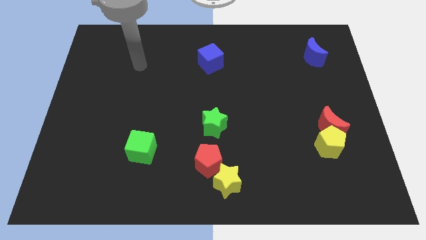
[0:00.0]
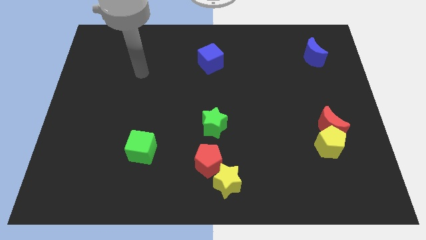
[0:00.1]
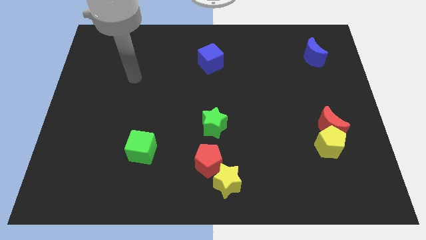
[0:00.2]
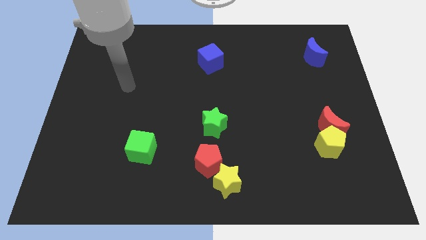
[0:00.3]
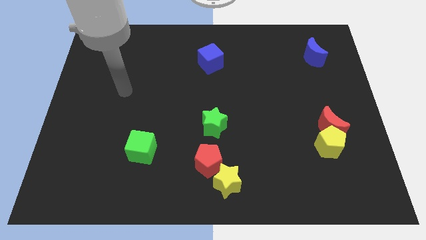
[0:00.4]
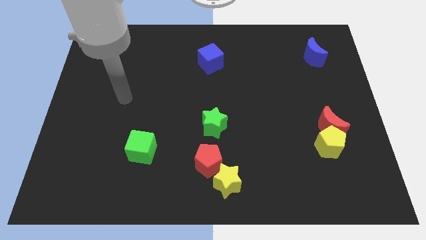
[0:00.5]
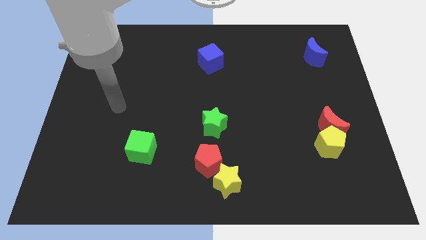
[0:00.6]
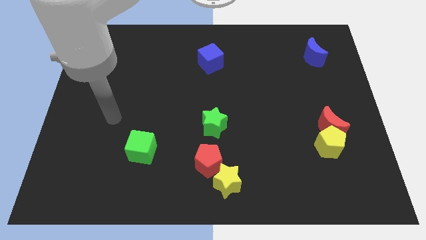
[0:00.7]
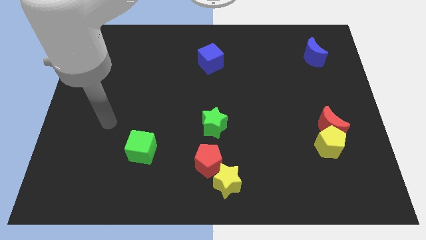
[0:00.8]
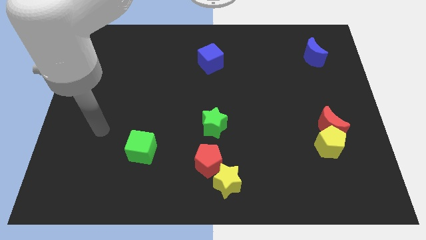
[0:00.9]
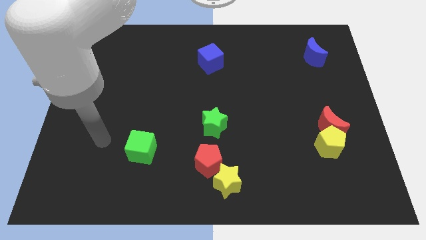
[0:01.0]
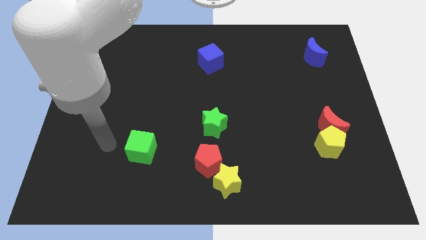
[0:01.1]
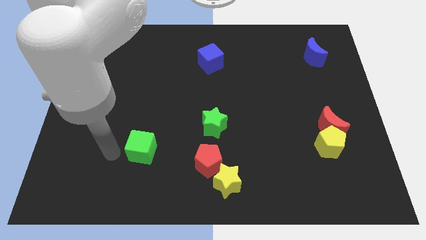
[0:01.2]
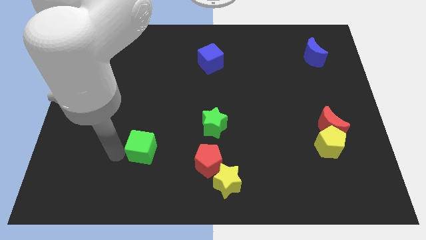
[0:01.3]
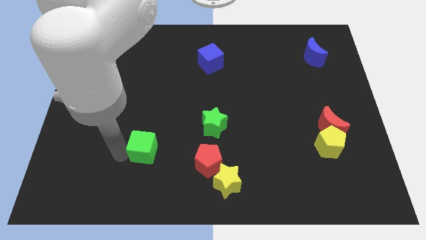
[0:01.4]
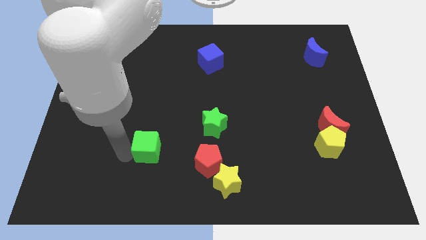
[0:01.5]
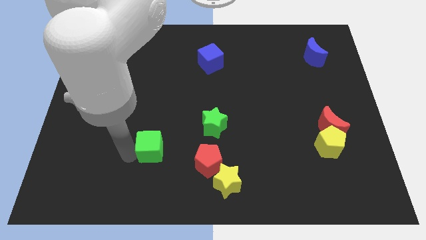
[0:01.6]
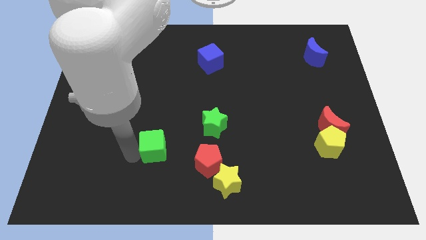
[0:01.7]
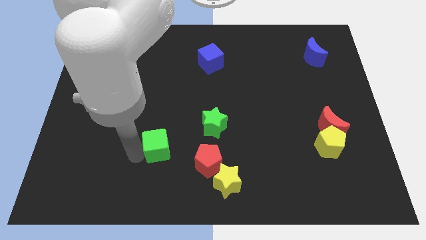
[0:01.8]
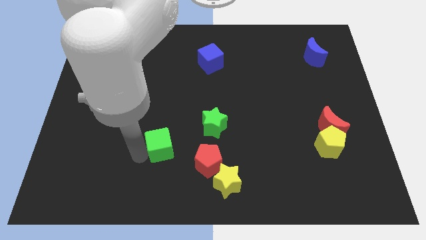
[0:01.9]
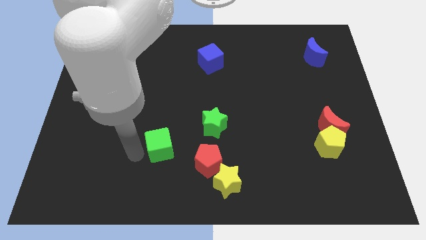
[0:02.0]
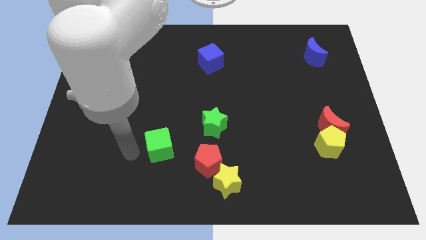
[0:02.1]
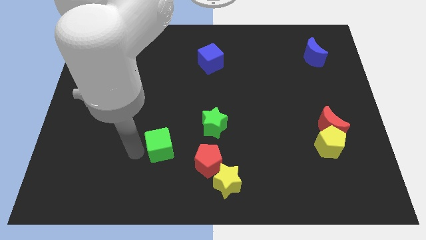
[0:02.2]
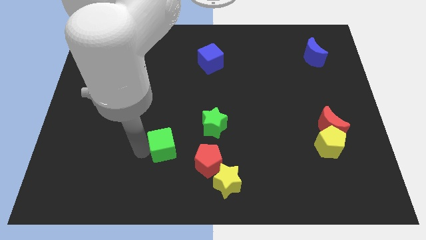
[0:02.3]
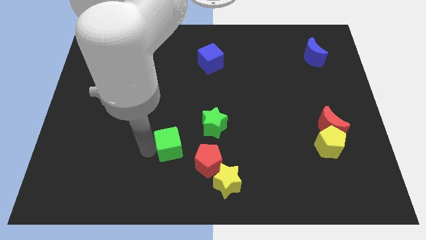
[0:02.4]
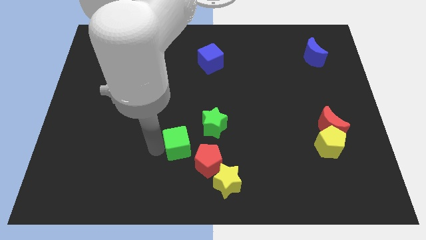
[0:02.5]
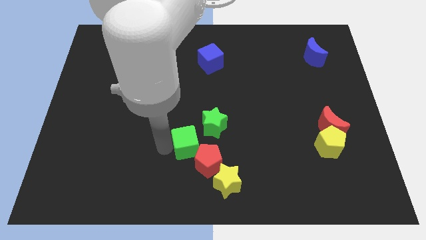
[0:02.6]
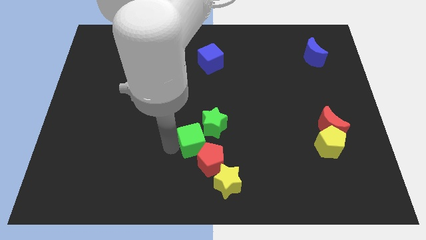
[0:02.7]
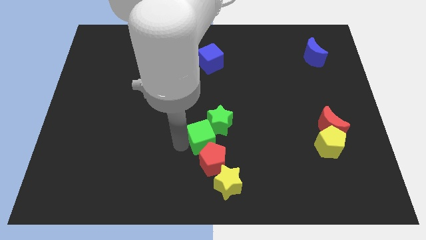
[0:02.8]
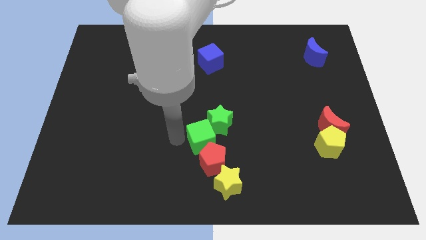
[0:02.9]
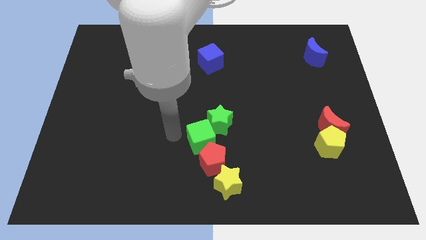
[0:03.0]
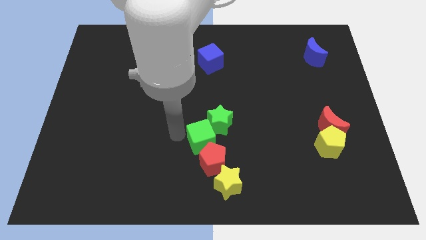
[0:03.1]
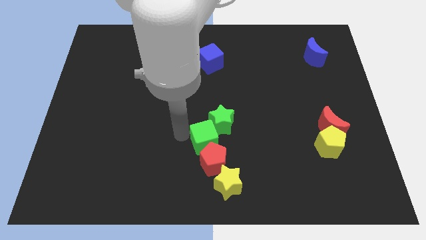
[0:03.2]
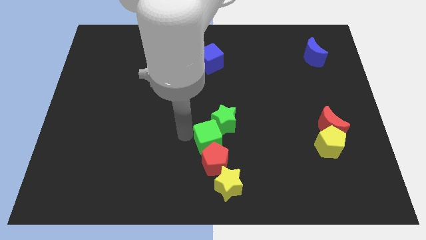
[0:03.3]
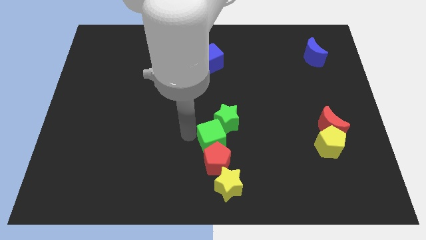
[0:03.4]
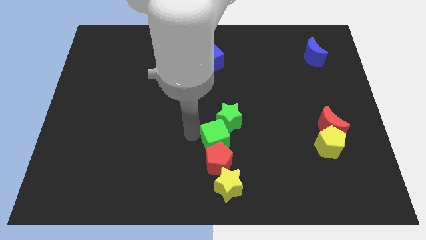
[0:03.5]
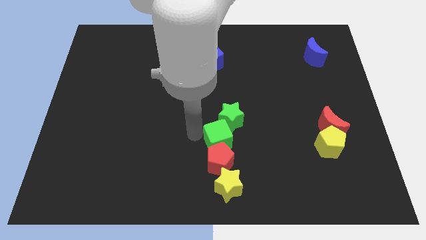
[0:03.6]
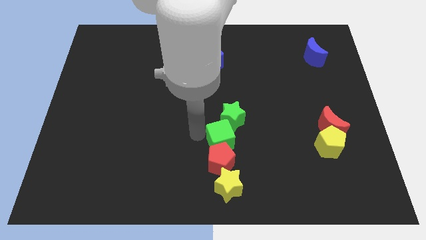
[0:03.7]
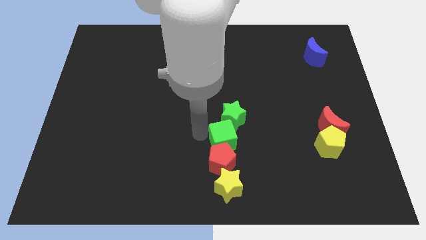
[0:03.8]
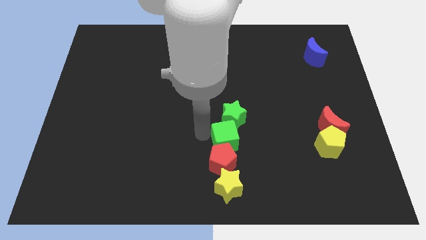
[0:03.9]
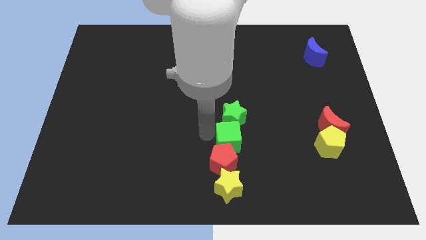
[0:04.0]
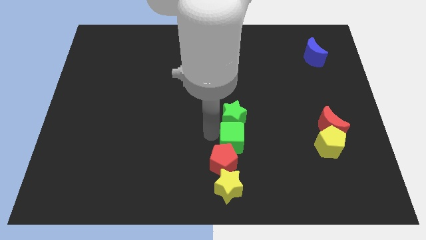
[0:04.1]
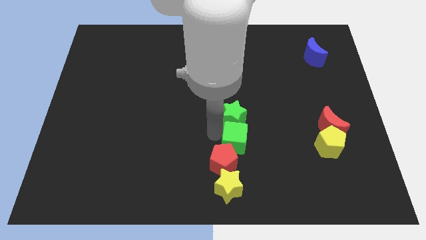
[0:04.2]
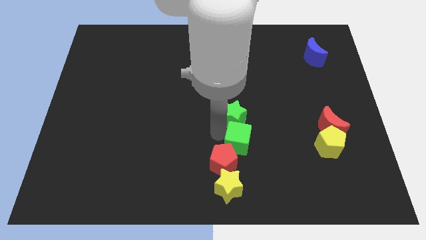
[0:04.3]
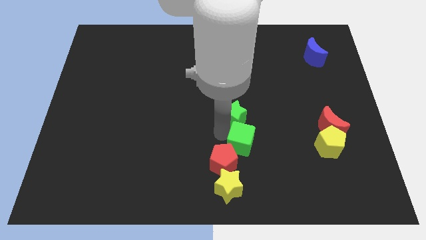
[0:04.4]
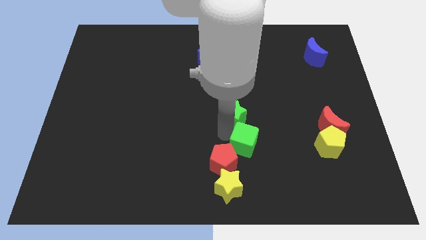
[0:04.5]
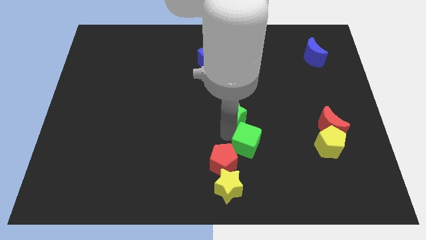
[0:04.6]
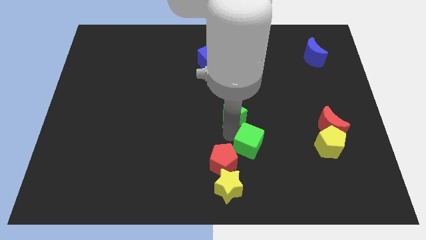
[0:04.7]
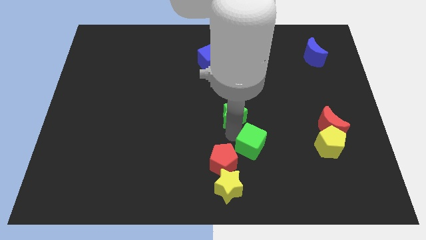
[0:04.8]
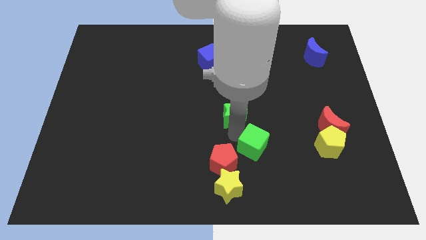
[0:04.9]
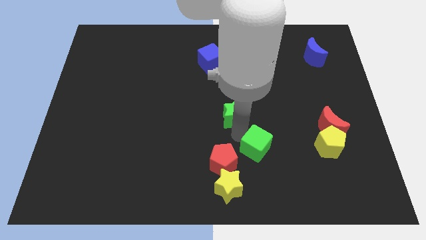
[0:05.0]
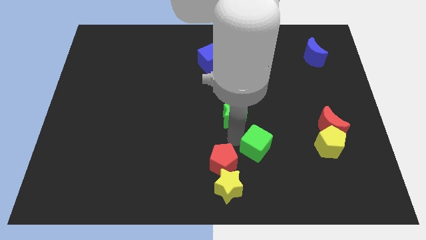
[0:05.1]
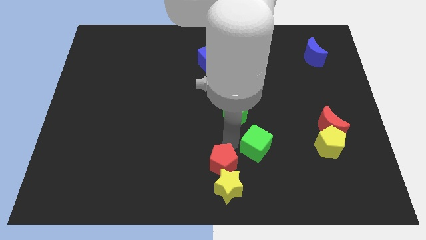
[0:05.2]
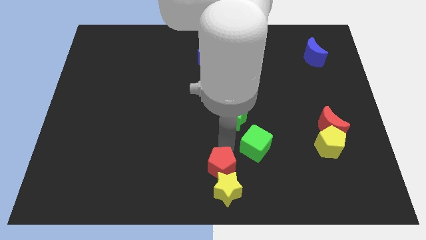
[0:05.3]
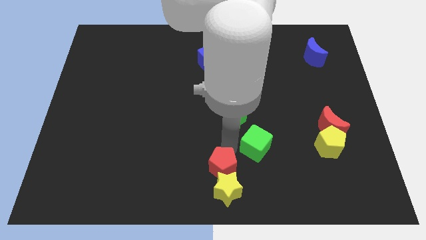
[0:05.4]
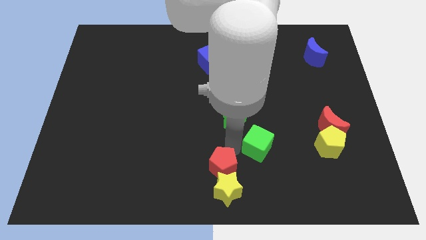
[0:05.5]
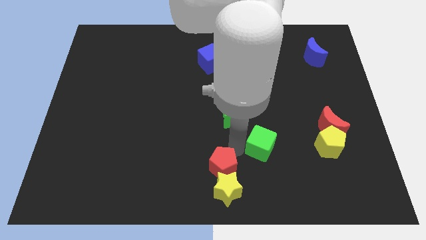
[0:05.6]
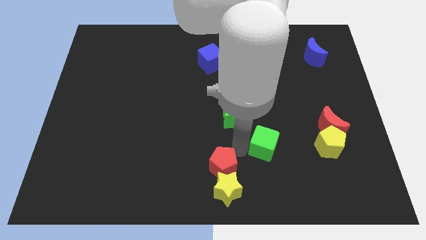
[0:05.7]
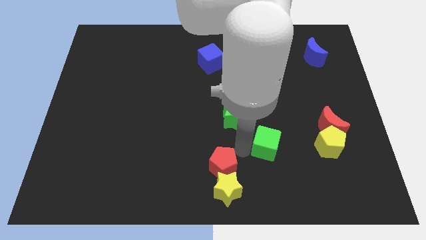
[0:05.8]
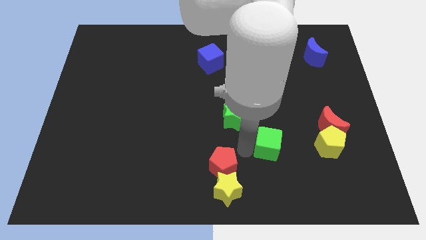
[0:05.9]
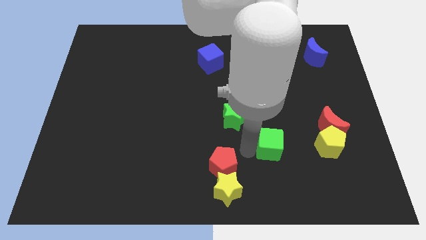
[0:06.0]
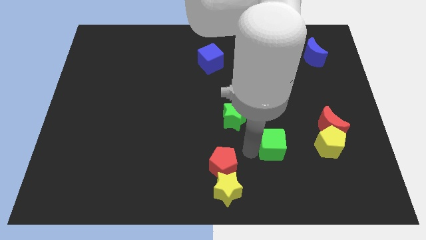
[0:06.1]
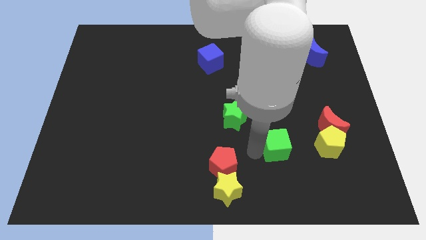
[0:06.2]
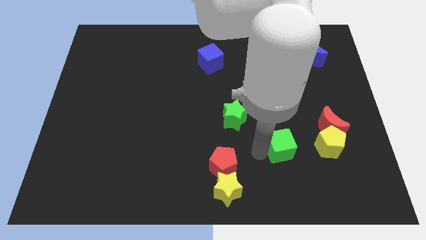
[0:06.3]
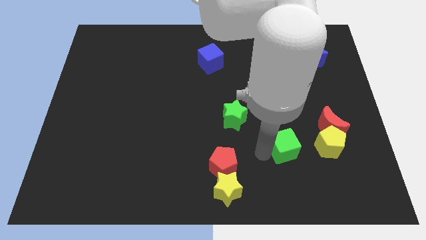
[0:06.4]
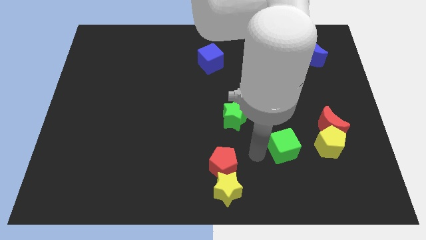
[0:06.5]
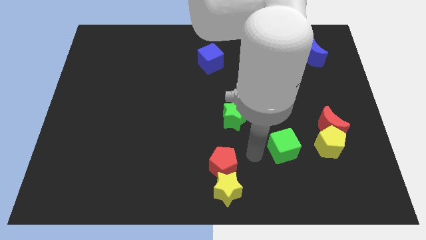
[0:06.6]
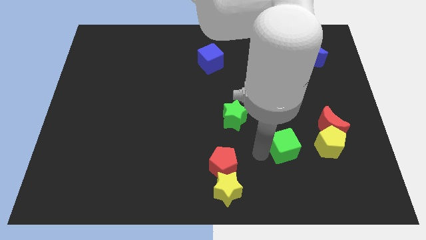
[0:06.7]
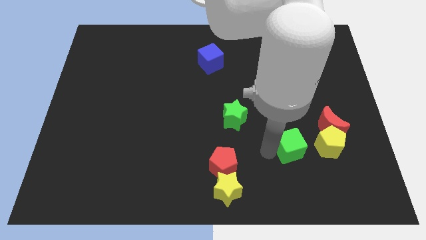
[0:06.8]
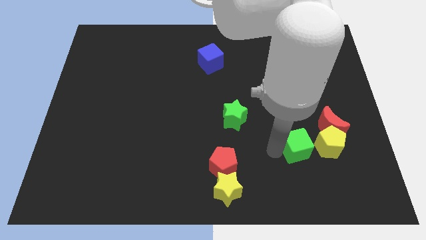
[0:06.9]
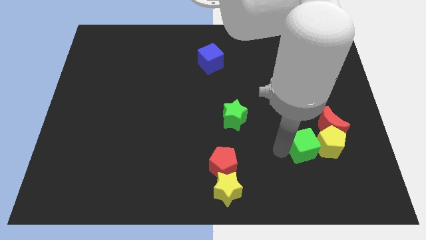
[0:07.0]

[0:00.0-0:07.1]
push the green cube close to the yellow pentagon

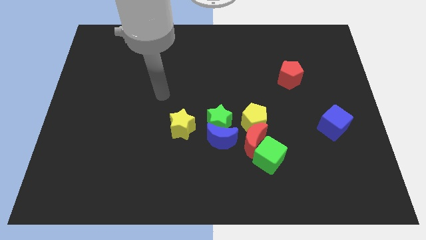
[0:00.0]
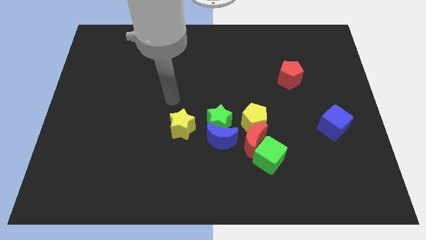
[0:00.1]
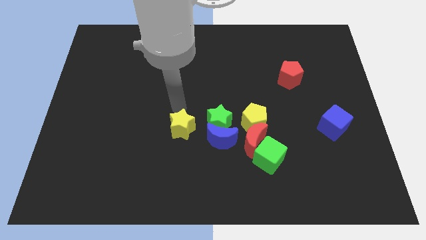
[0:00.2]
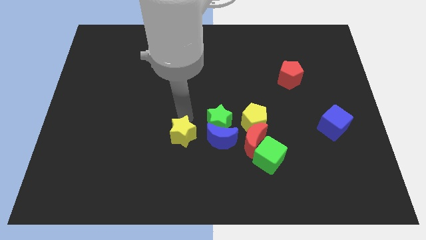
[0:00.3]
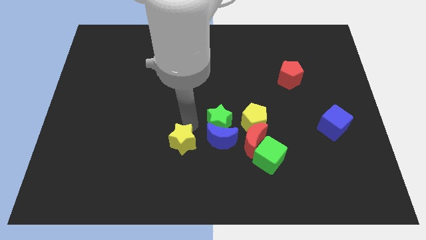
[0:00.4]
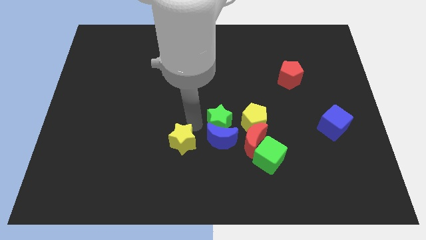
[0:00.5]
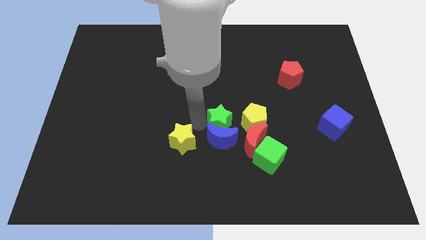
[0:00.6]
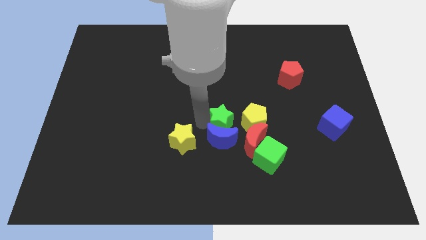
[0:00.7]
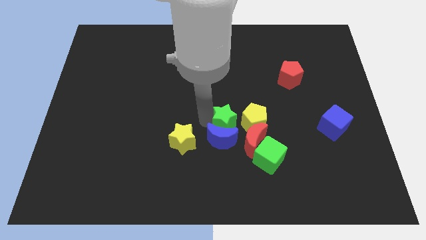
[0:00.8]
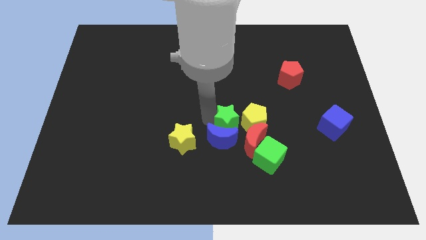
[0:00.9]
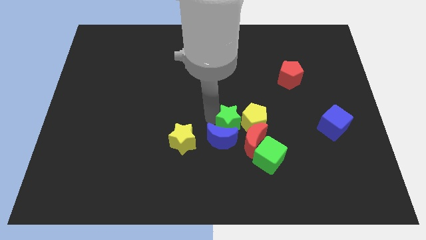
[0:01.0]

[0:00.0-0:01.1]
put the green star to the yellow pentagon
